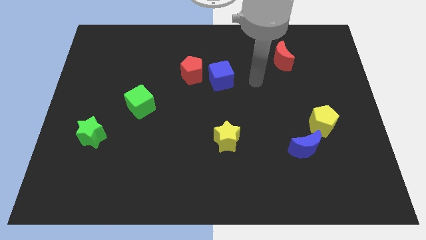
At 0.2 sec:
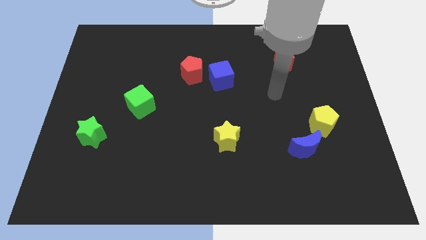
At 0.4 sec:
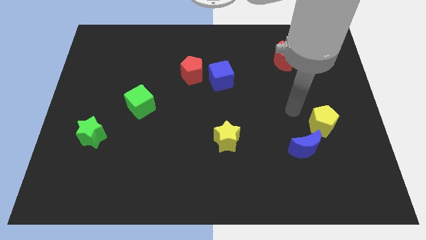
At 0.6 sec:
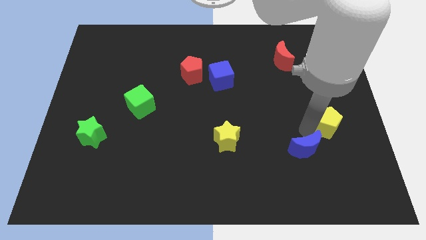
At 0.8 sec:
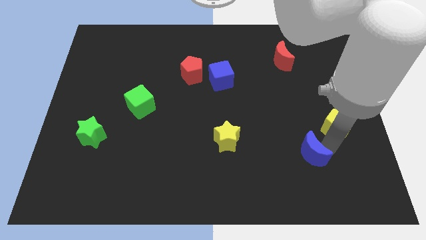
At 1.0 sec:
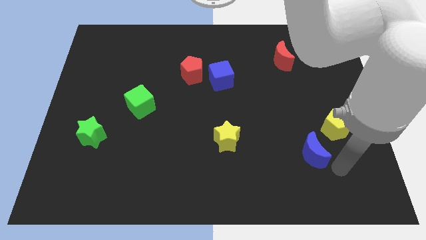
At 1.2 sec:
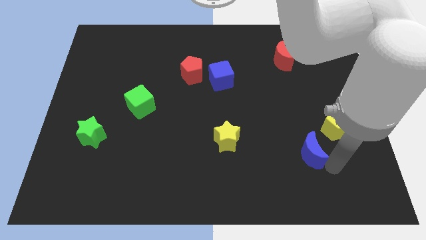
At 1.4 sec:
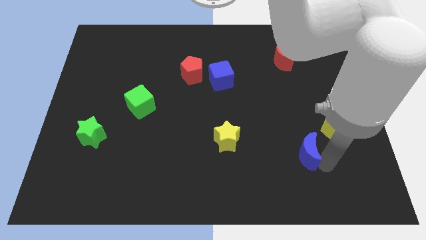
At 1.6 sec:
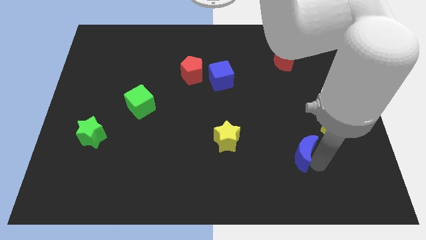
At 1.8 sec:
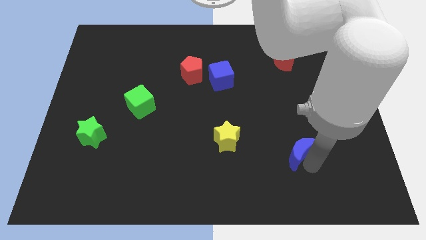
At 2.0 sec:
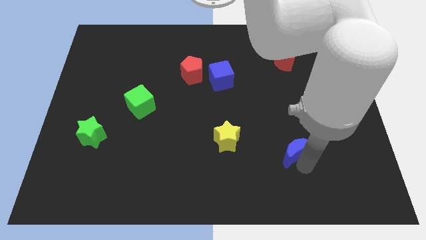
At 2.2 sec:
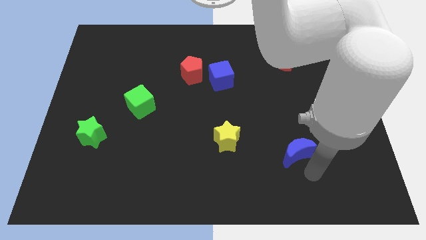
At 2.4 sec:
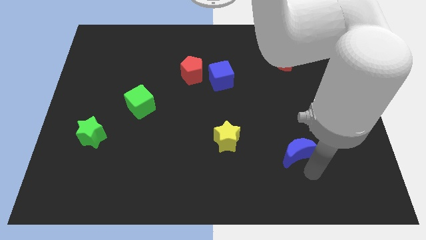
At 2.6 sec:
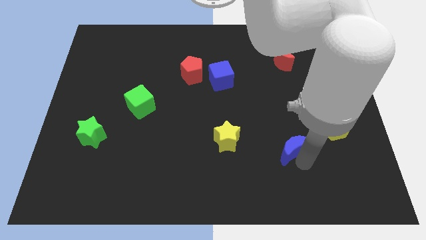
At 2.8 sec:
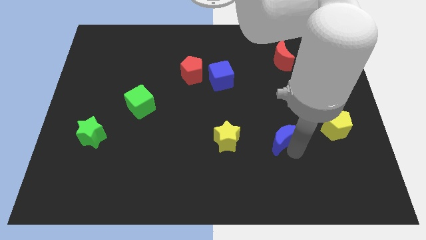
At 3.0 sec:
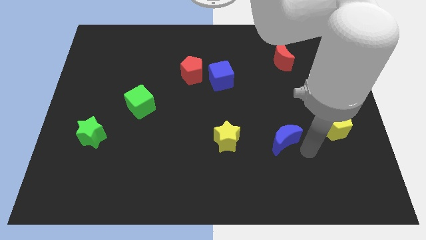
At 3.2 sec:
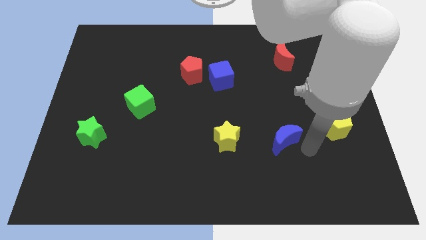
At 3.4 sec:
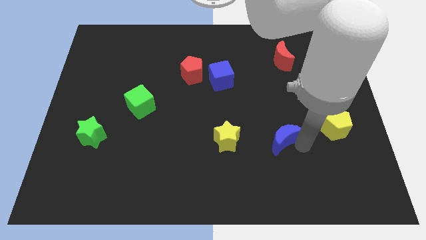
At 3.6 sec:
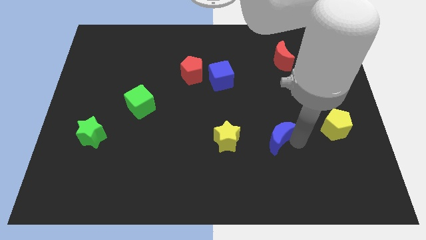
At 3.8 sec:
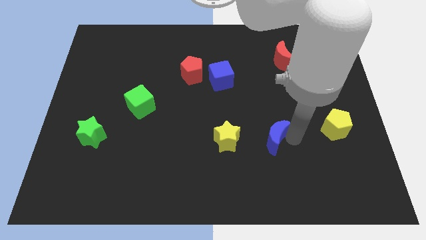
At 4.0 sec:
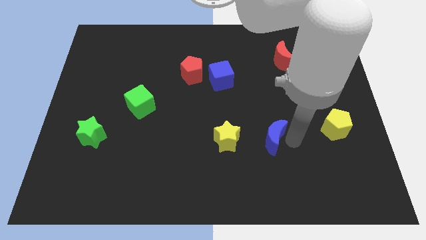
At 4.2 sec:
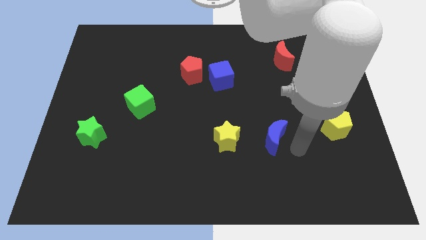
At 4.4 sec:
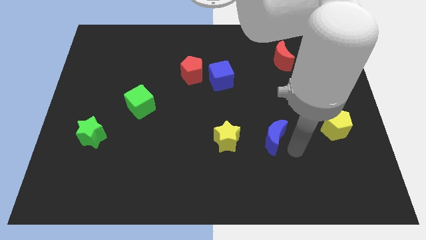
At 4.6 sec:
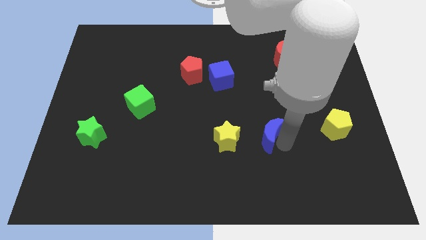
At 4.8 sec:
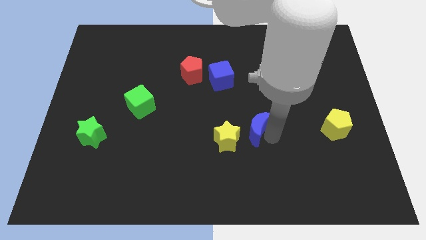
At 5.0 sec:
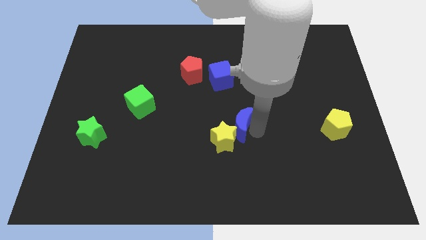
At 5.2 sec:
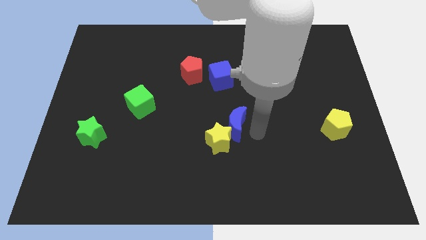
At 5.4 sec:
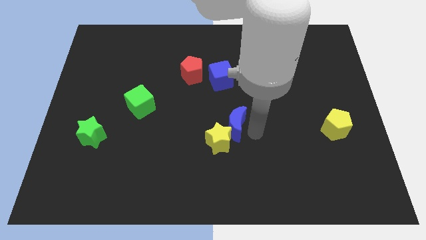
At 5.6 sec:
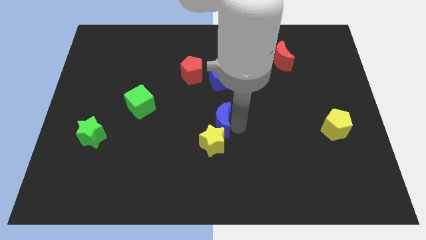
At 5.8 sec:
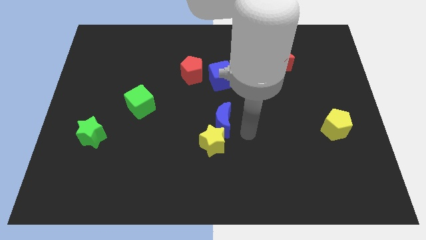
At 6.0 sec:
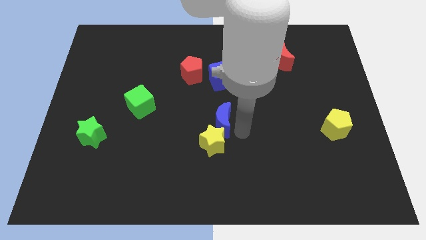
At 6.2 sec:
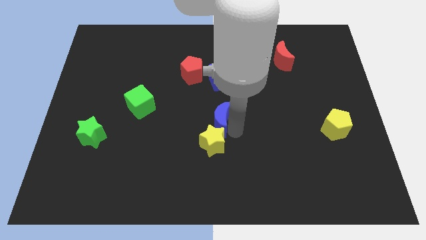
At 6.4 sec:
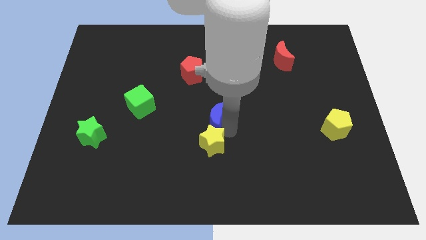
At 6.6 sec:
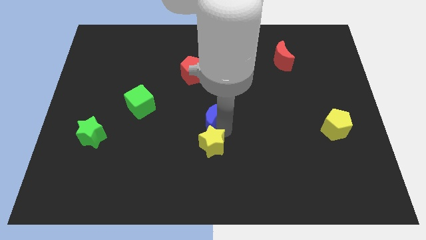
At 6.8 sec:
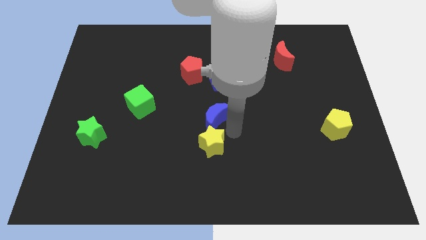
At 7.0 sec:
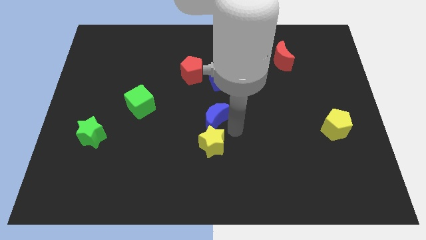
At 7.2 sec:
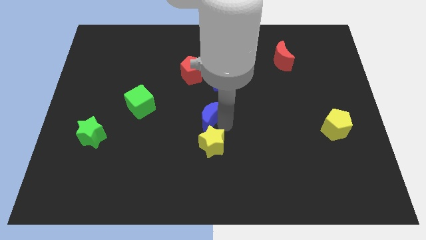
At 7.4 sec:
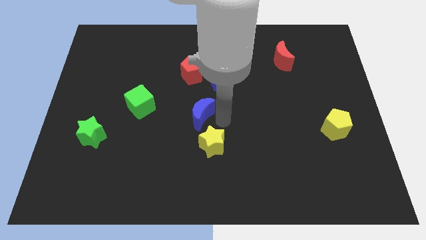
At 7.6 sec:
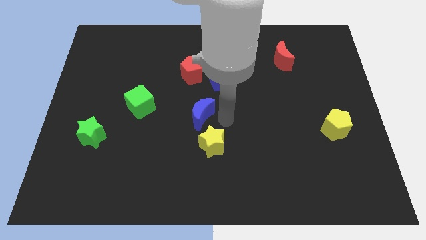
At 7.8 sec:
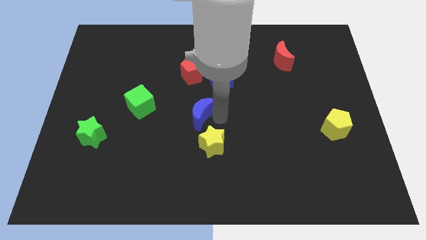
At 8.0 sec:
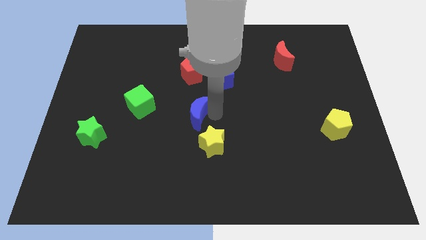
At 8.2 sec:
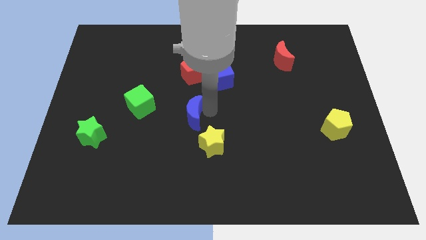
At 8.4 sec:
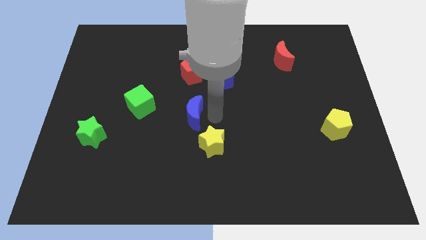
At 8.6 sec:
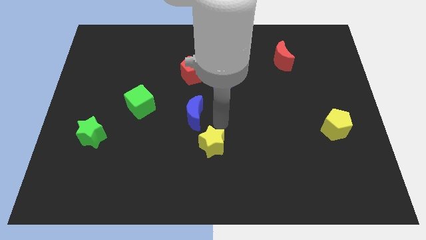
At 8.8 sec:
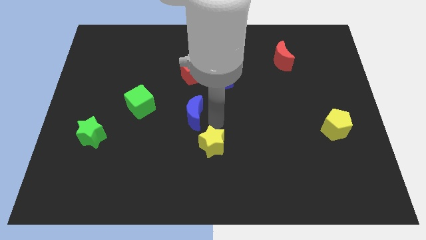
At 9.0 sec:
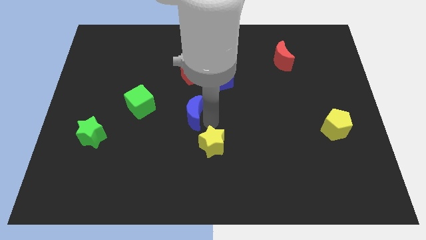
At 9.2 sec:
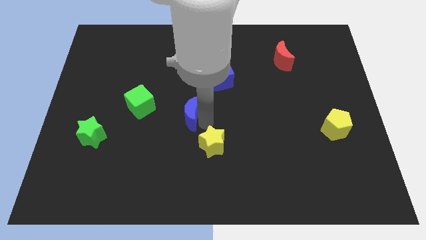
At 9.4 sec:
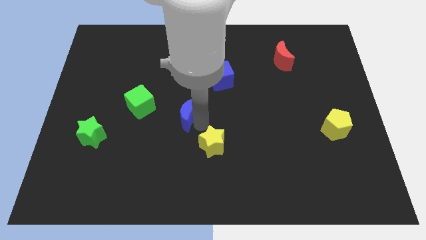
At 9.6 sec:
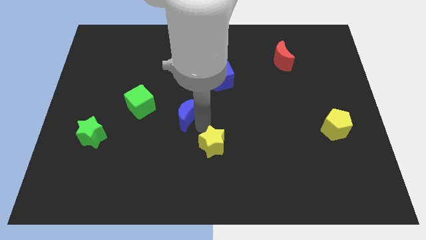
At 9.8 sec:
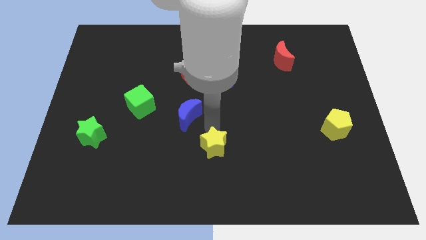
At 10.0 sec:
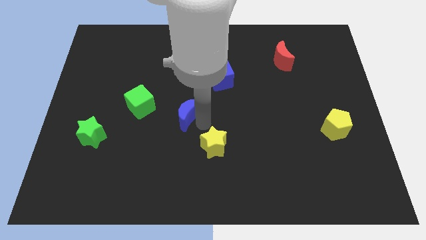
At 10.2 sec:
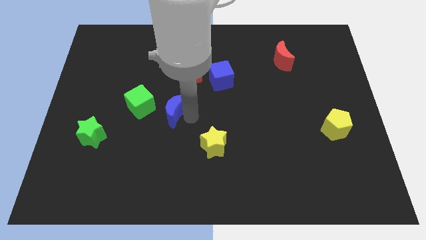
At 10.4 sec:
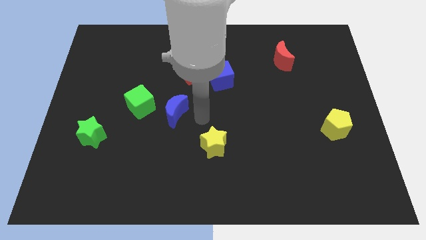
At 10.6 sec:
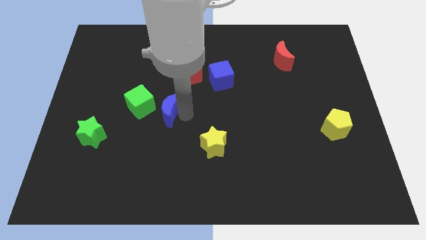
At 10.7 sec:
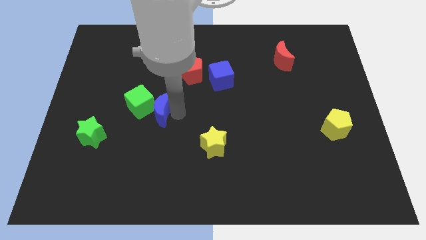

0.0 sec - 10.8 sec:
put the blue moon close to the green cube

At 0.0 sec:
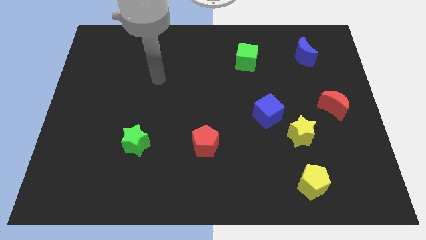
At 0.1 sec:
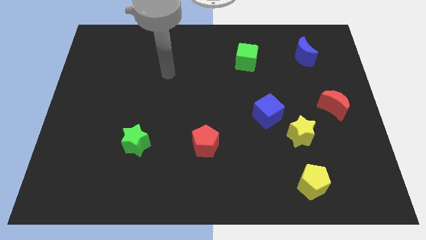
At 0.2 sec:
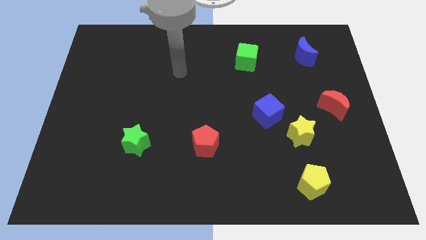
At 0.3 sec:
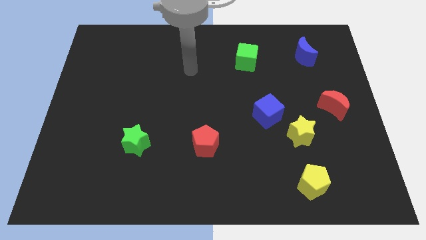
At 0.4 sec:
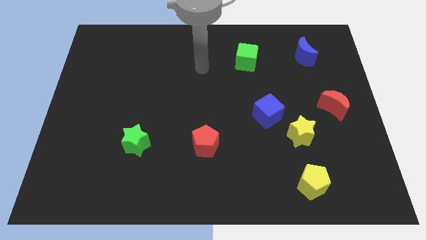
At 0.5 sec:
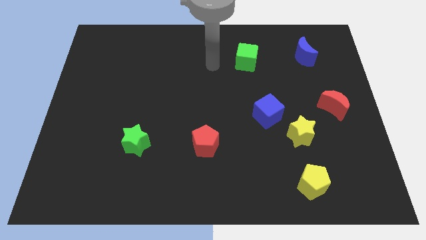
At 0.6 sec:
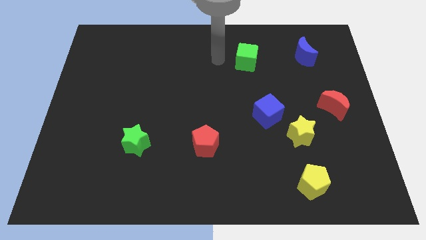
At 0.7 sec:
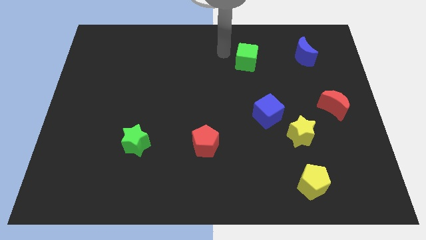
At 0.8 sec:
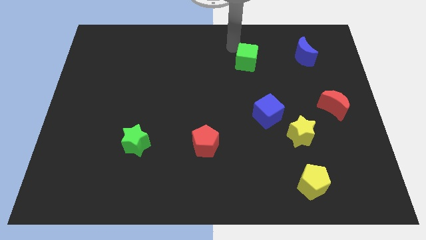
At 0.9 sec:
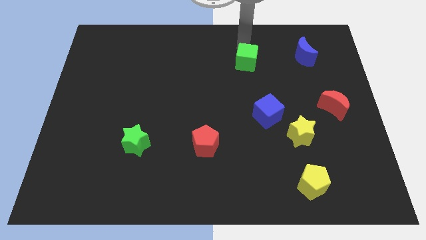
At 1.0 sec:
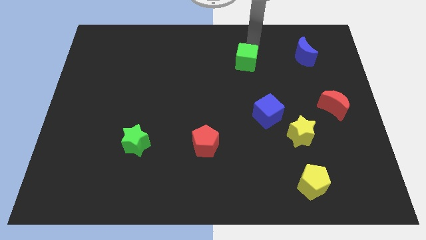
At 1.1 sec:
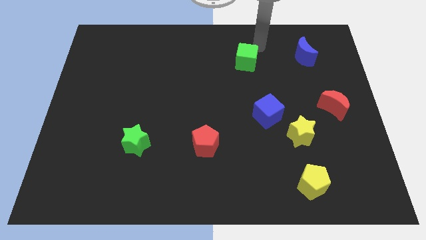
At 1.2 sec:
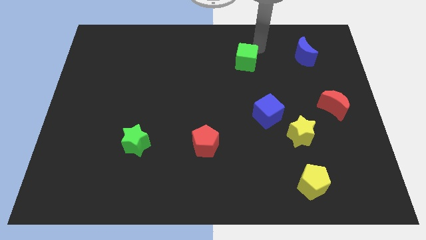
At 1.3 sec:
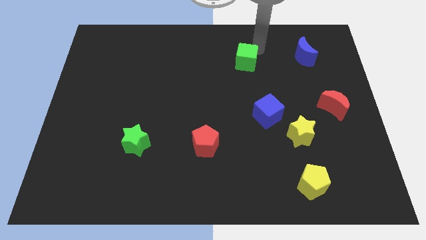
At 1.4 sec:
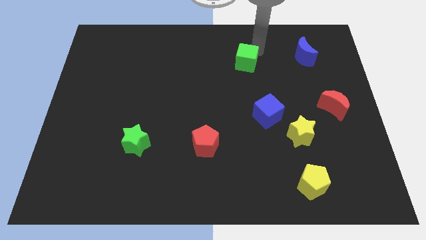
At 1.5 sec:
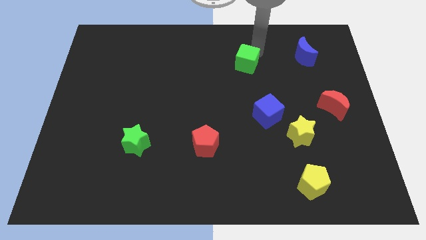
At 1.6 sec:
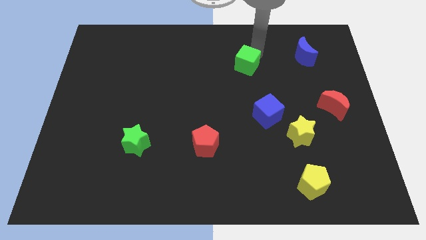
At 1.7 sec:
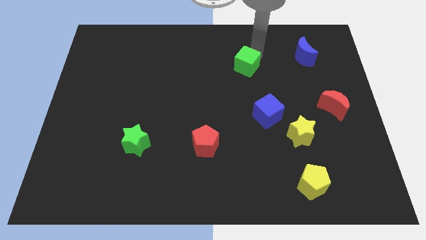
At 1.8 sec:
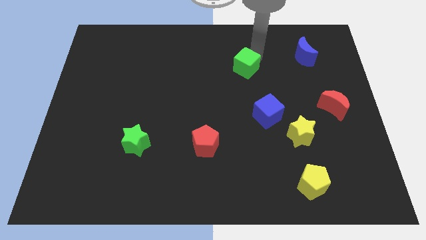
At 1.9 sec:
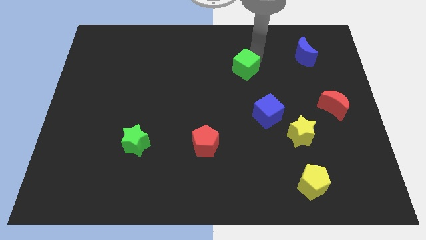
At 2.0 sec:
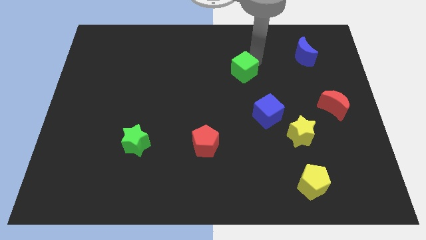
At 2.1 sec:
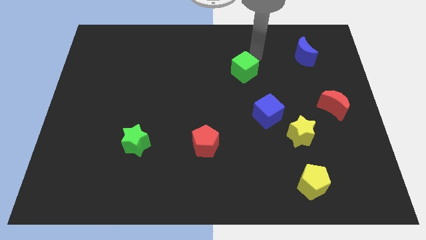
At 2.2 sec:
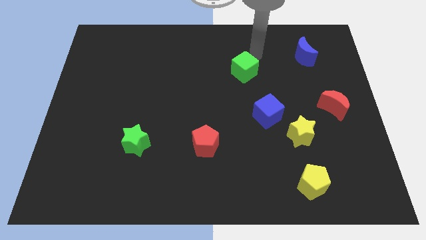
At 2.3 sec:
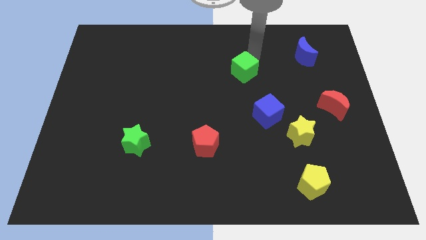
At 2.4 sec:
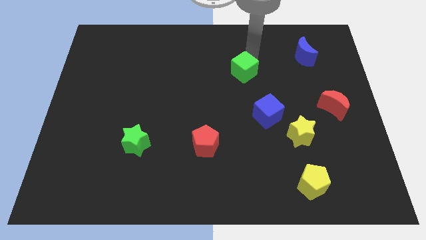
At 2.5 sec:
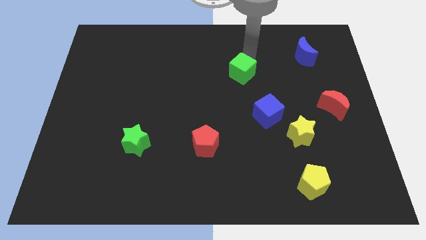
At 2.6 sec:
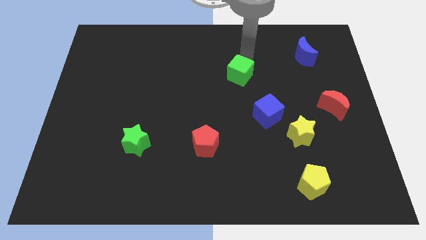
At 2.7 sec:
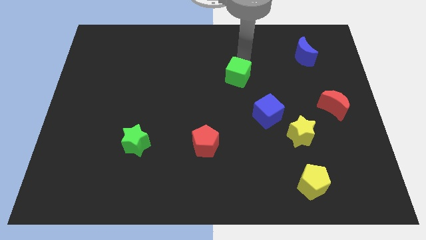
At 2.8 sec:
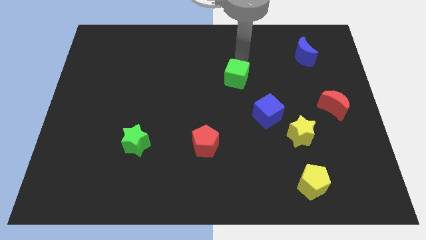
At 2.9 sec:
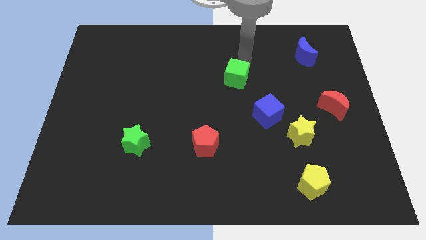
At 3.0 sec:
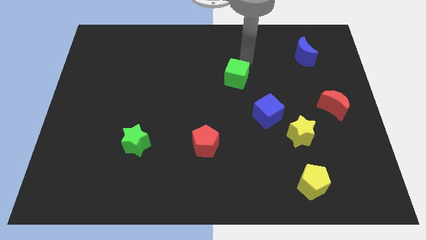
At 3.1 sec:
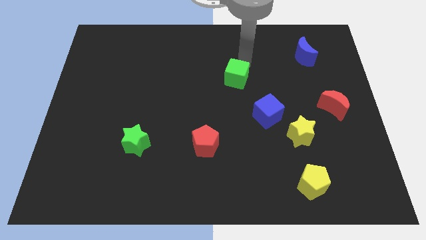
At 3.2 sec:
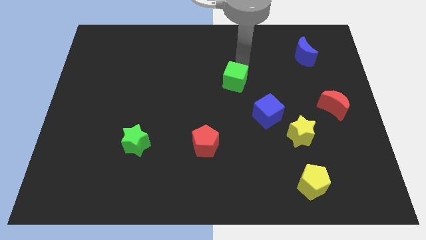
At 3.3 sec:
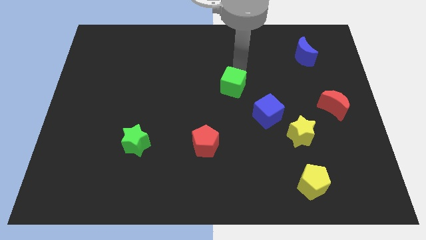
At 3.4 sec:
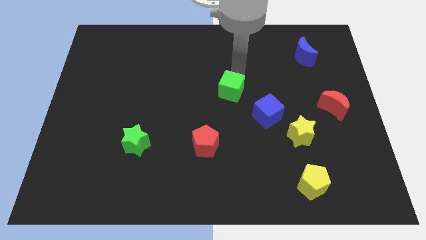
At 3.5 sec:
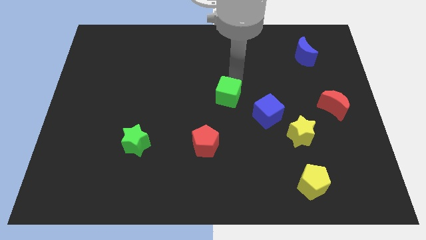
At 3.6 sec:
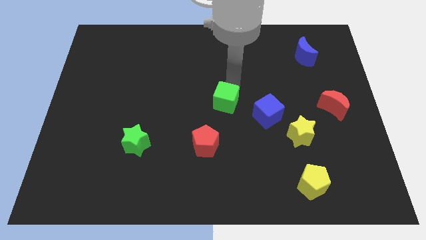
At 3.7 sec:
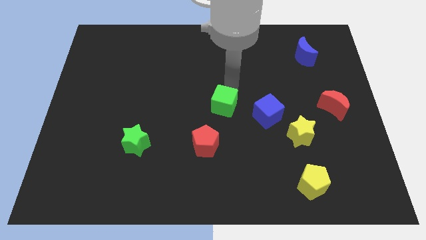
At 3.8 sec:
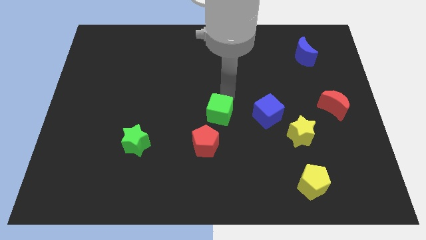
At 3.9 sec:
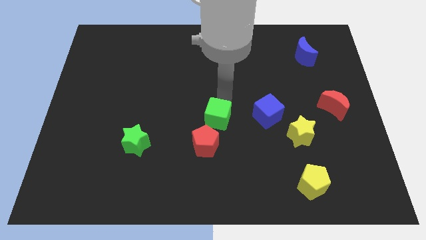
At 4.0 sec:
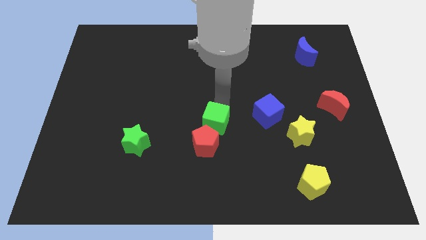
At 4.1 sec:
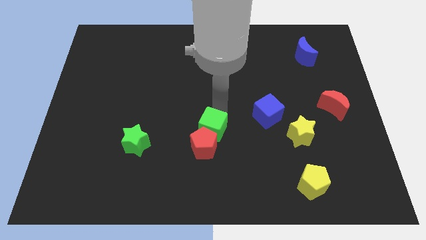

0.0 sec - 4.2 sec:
slide the green cube towards the red pentagon
